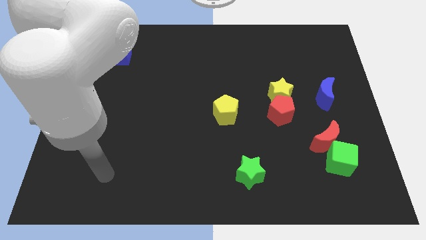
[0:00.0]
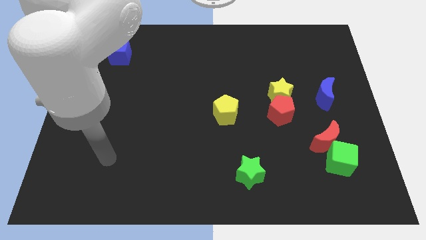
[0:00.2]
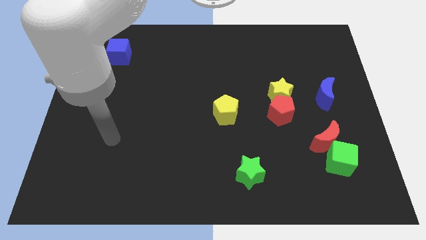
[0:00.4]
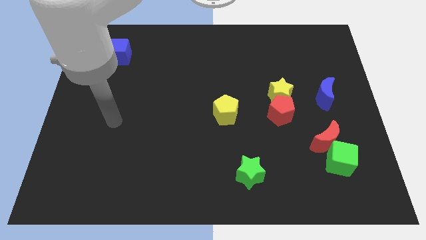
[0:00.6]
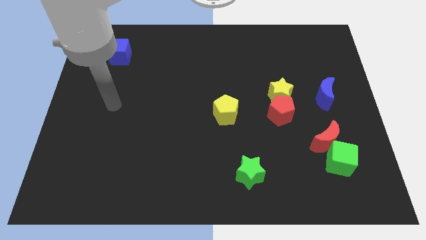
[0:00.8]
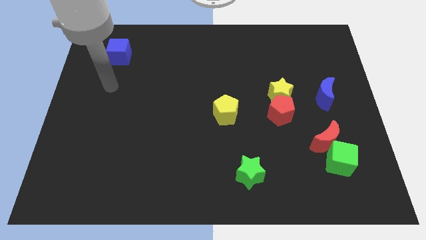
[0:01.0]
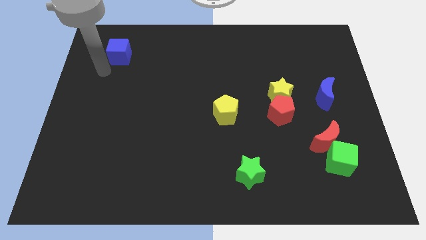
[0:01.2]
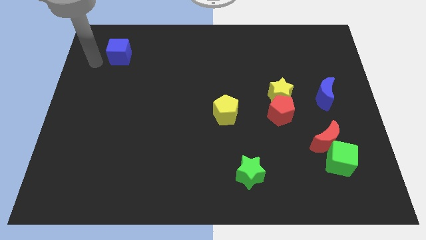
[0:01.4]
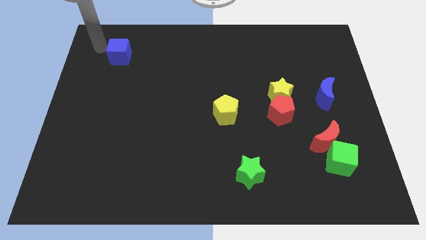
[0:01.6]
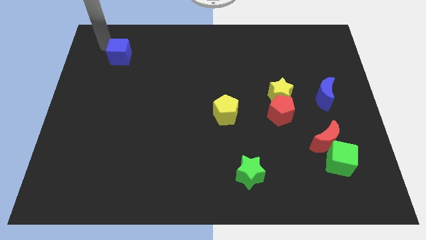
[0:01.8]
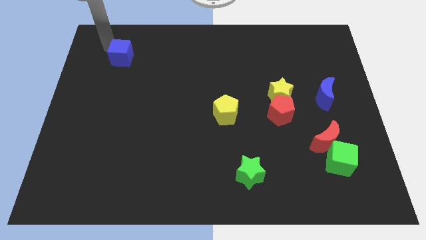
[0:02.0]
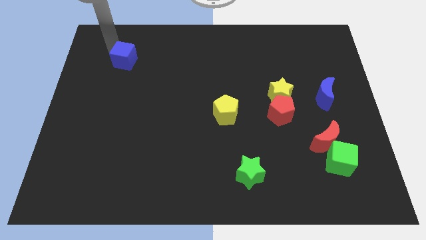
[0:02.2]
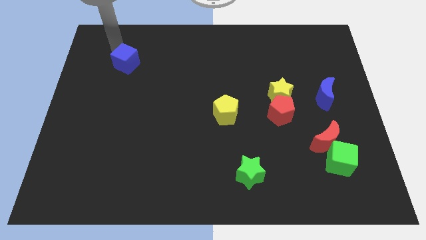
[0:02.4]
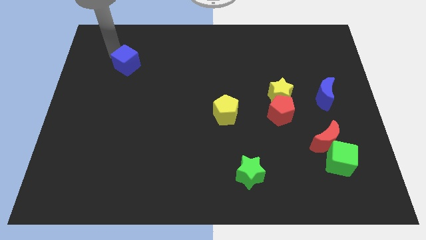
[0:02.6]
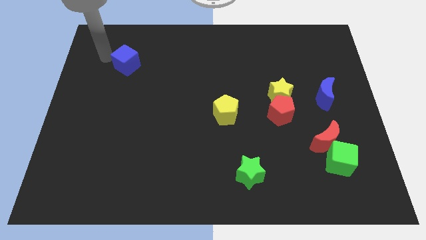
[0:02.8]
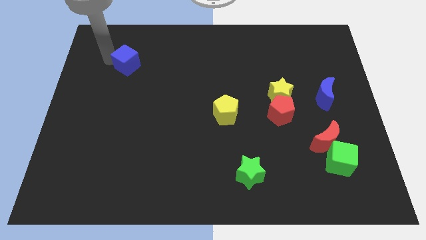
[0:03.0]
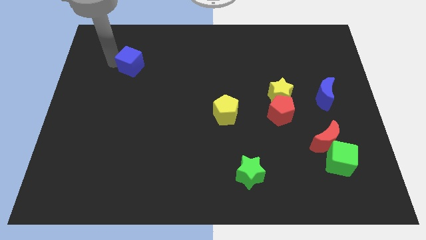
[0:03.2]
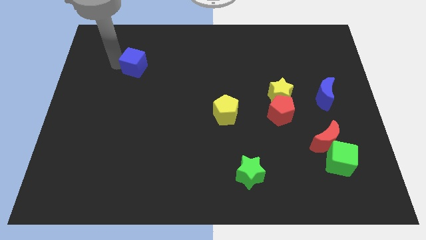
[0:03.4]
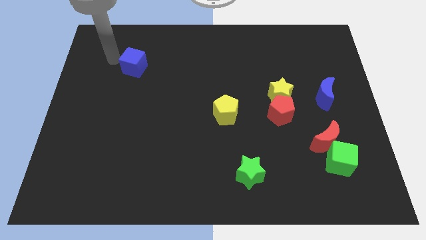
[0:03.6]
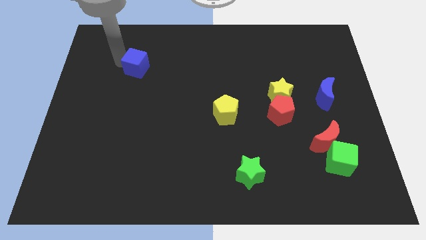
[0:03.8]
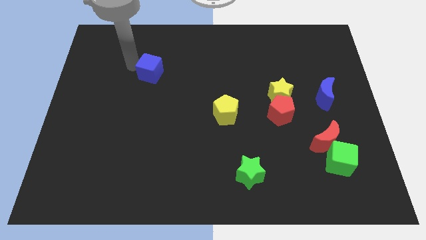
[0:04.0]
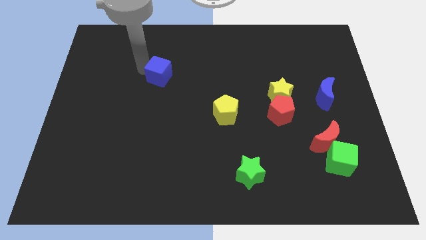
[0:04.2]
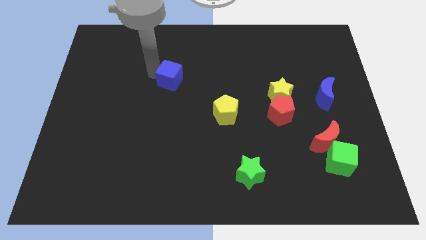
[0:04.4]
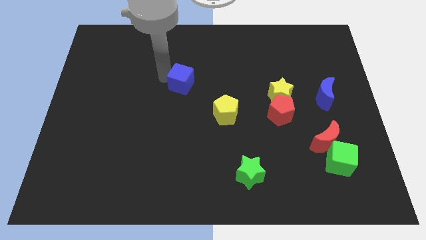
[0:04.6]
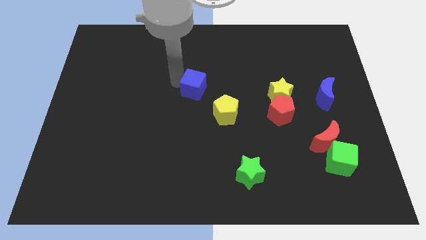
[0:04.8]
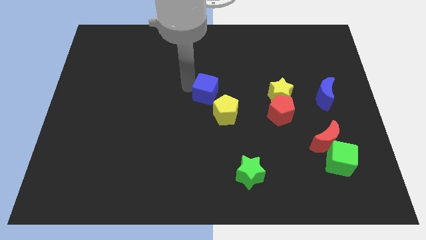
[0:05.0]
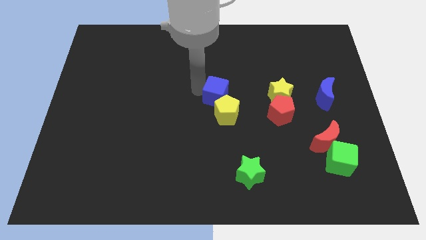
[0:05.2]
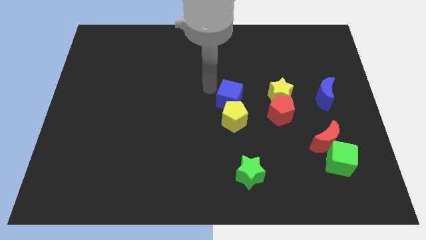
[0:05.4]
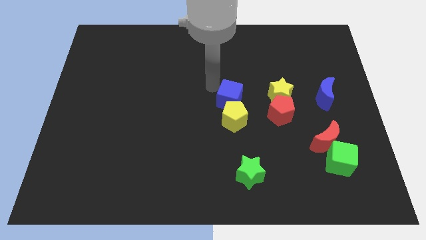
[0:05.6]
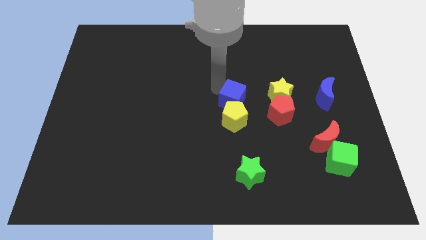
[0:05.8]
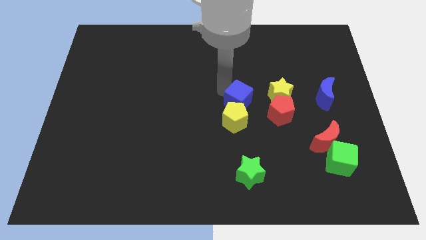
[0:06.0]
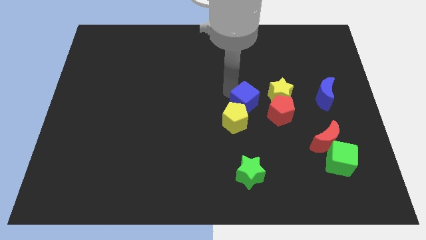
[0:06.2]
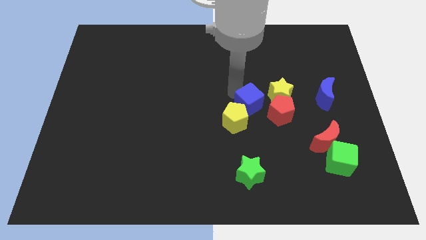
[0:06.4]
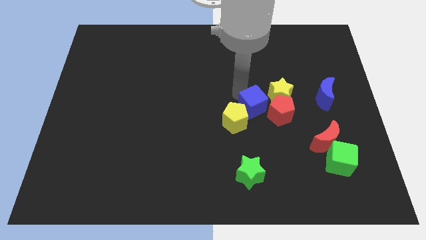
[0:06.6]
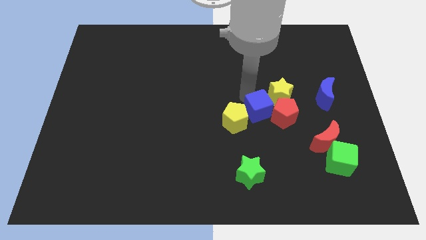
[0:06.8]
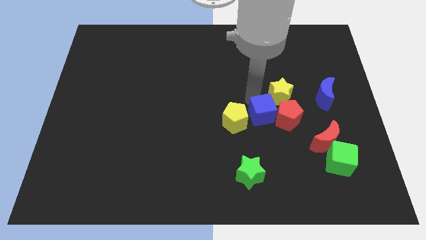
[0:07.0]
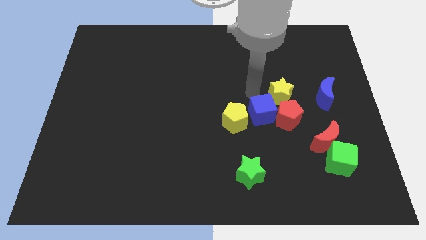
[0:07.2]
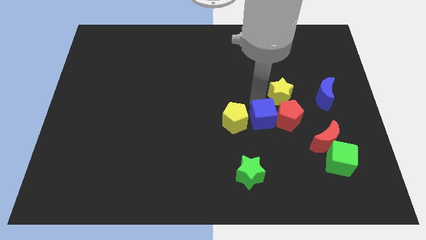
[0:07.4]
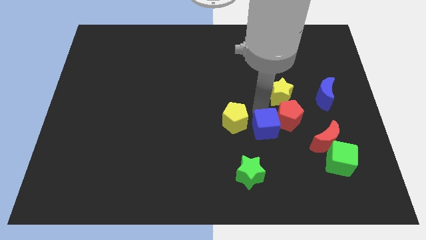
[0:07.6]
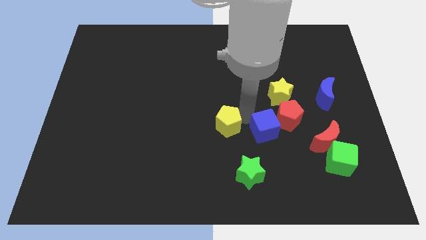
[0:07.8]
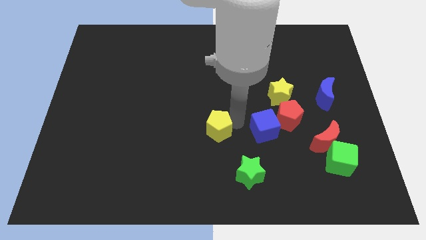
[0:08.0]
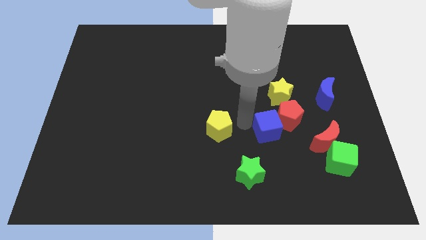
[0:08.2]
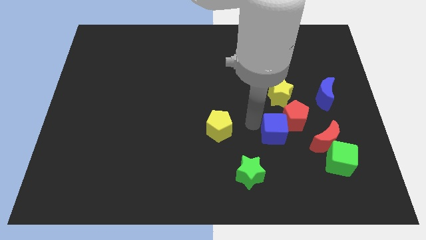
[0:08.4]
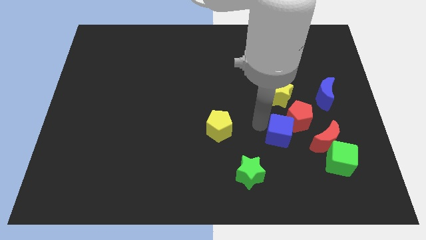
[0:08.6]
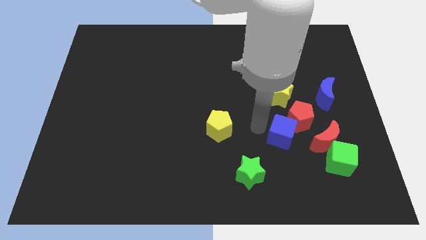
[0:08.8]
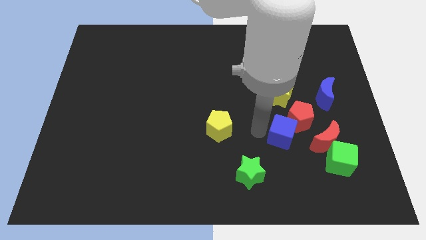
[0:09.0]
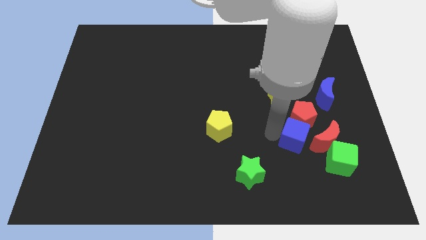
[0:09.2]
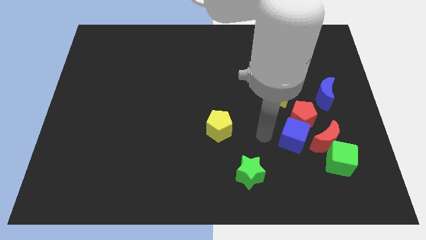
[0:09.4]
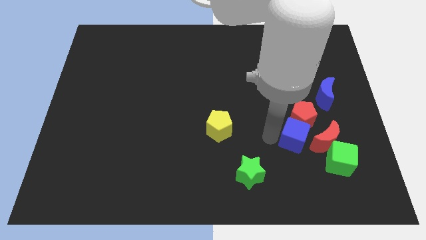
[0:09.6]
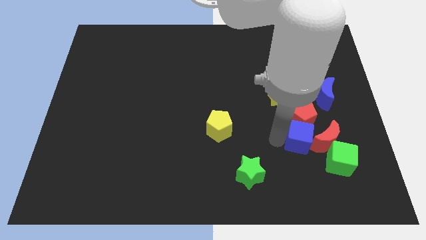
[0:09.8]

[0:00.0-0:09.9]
slide the blue cube next to the red moon

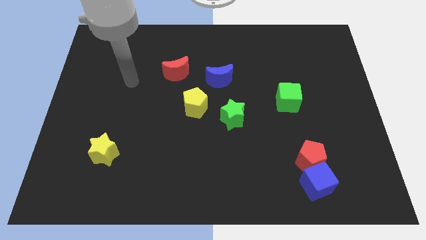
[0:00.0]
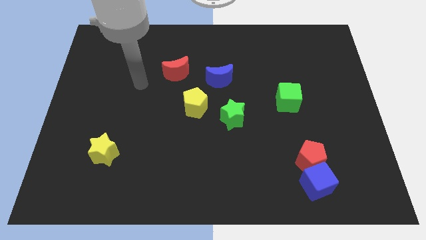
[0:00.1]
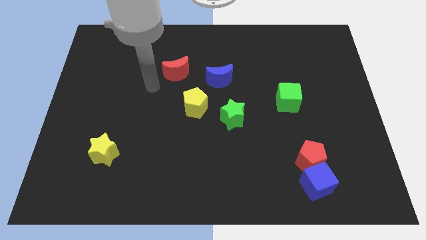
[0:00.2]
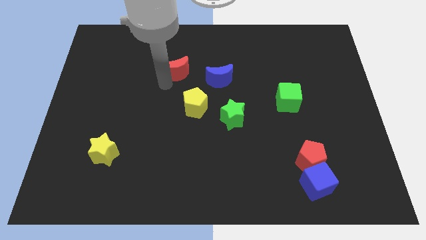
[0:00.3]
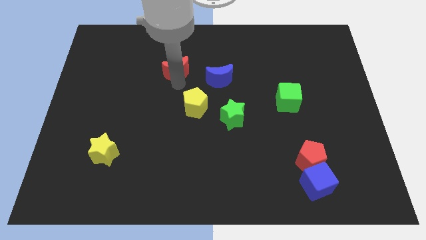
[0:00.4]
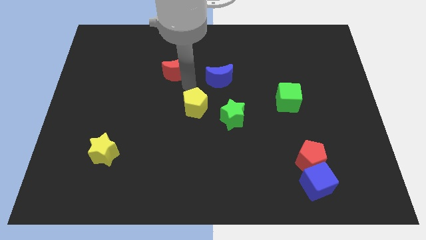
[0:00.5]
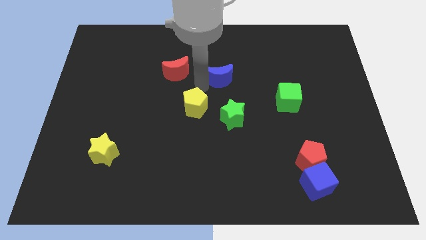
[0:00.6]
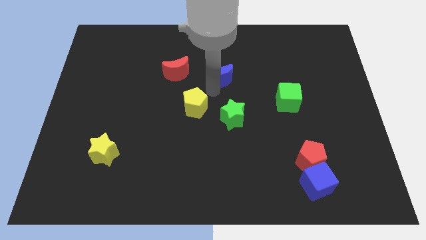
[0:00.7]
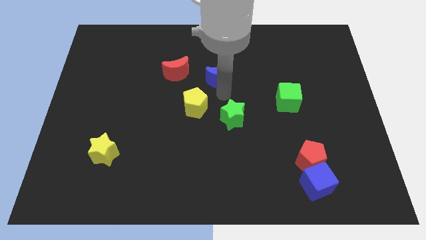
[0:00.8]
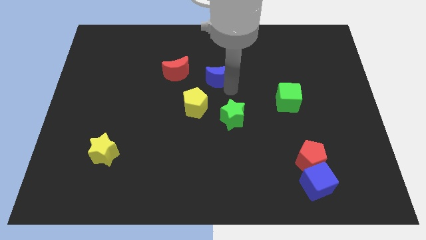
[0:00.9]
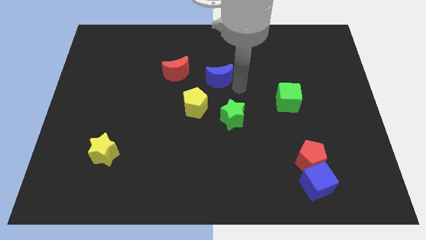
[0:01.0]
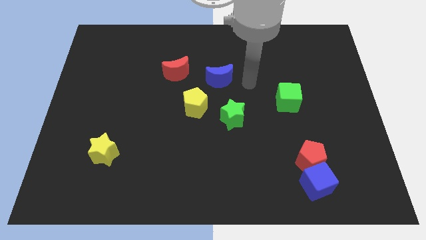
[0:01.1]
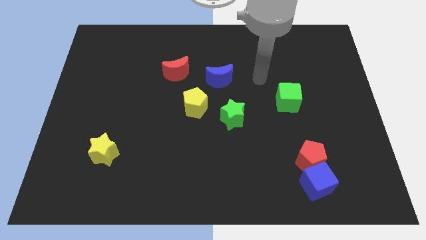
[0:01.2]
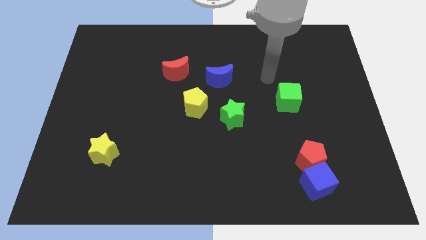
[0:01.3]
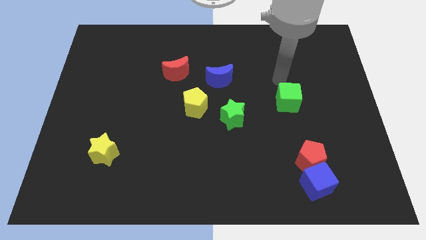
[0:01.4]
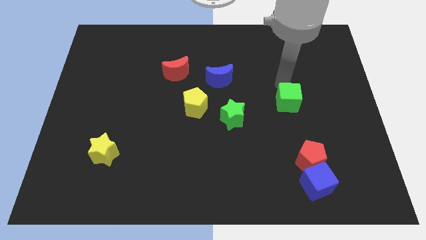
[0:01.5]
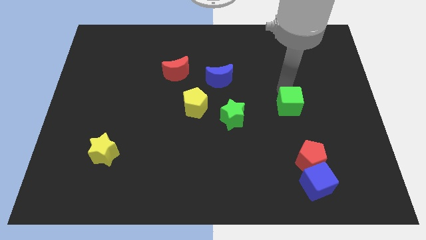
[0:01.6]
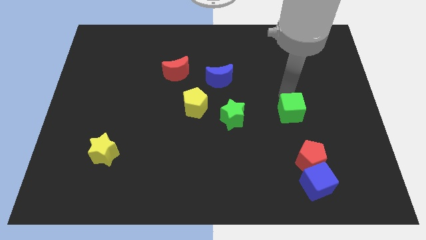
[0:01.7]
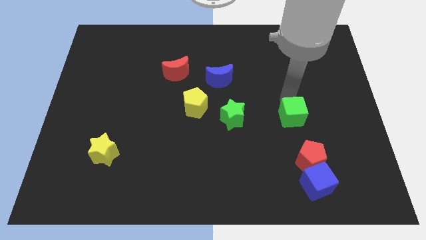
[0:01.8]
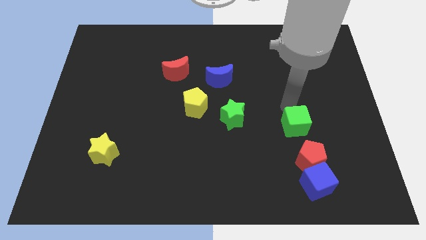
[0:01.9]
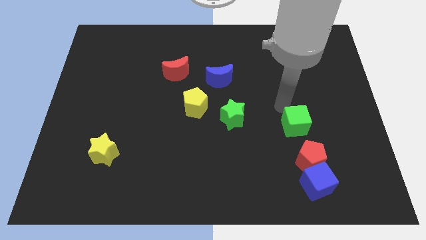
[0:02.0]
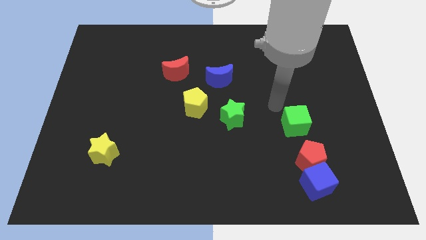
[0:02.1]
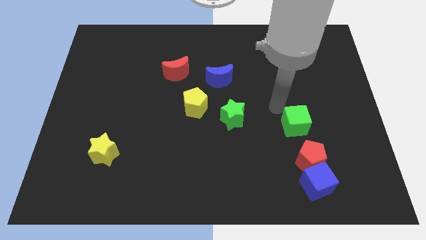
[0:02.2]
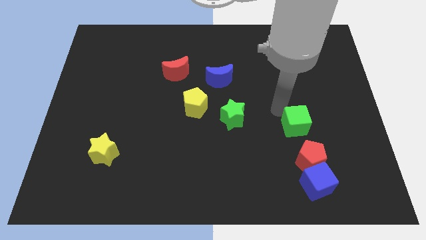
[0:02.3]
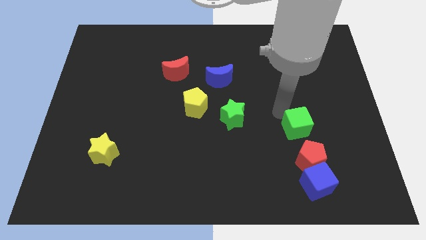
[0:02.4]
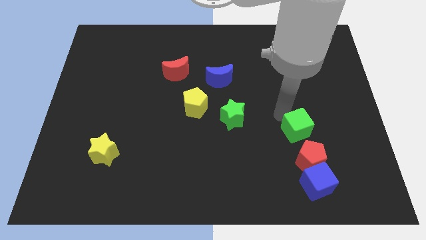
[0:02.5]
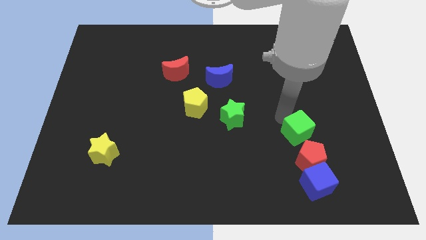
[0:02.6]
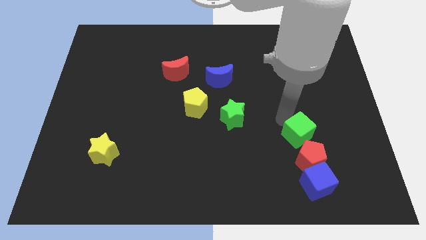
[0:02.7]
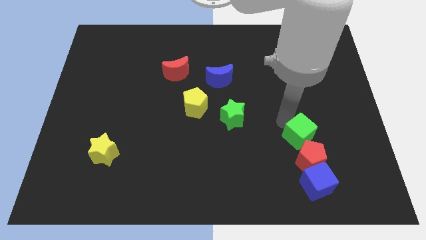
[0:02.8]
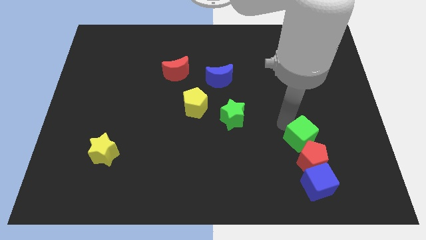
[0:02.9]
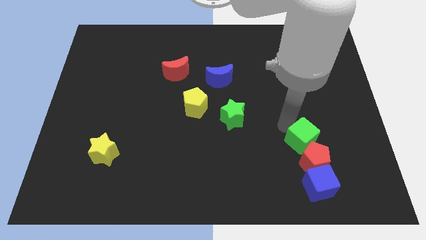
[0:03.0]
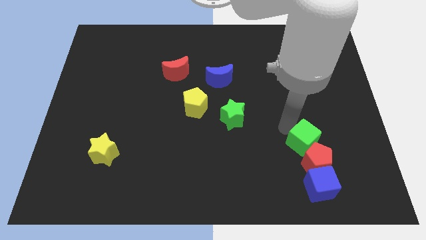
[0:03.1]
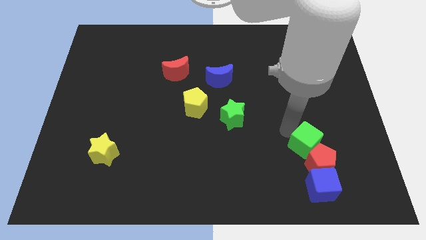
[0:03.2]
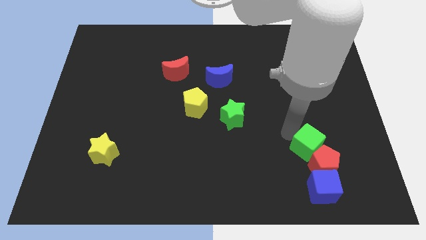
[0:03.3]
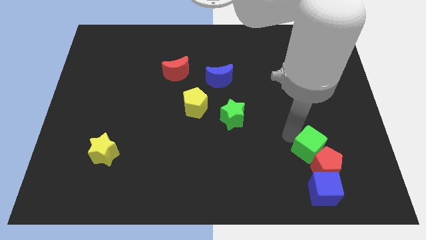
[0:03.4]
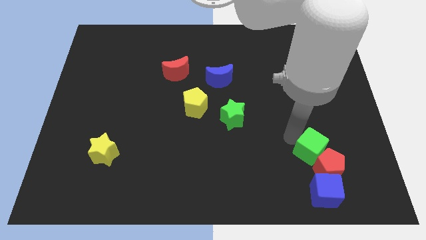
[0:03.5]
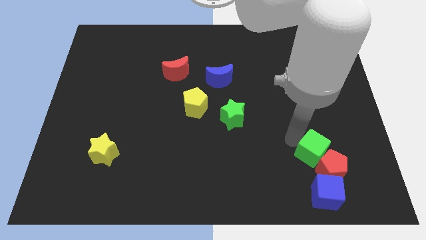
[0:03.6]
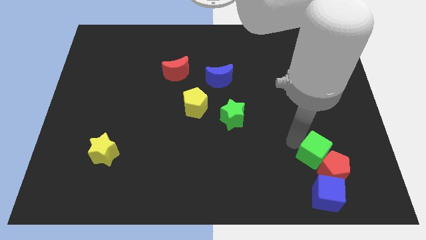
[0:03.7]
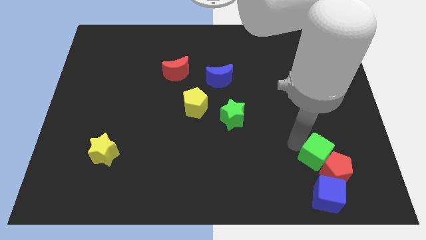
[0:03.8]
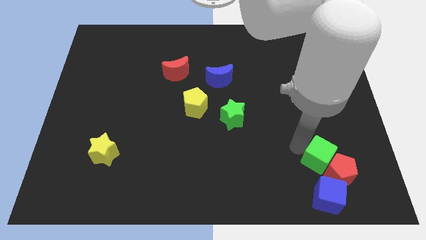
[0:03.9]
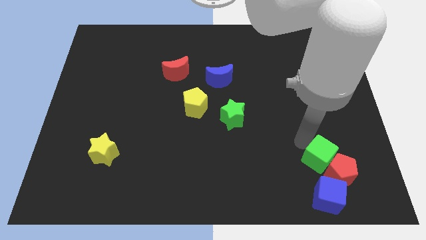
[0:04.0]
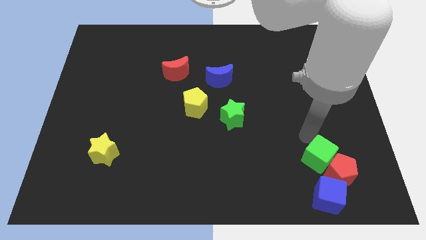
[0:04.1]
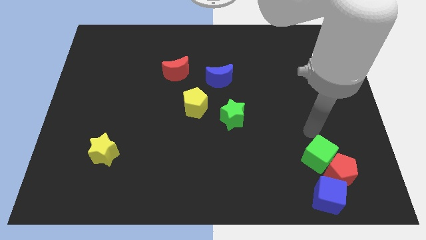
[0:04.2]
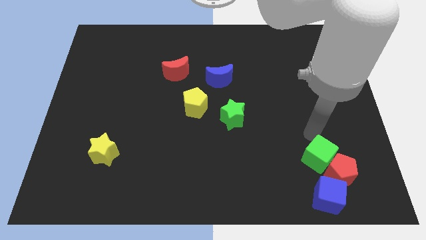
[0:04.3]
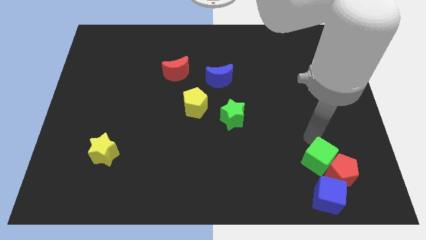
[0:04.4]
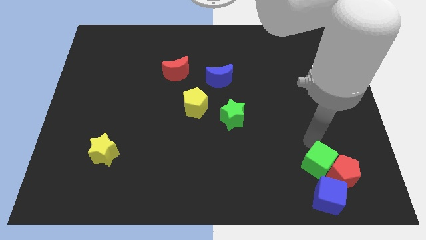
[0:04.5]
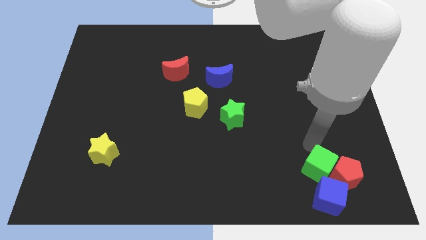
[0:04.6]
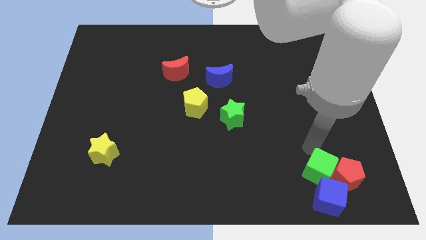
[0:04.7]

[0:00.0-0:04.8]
move the green cube close to the blue cube
